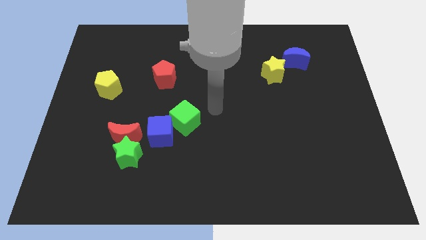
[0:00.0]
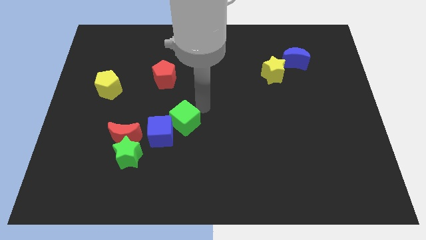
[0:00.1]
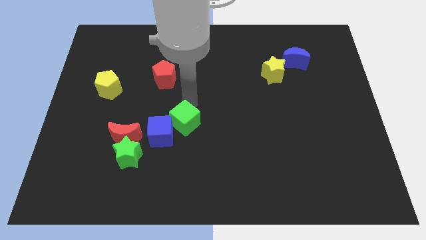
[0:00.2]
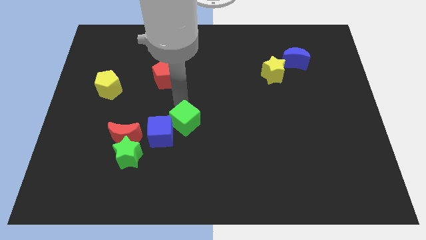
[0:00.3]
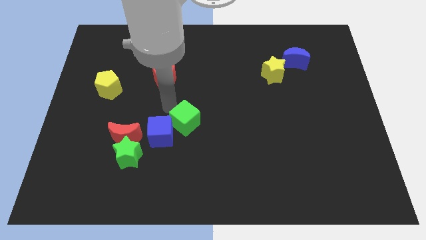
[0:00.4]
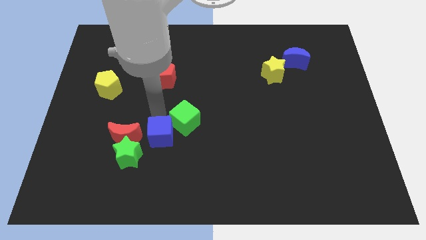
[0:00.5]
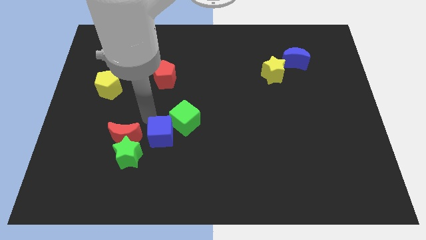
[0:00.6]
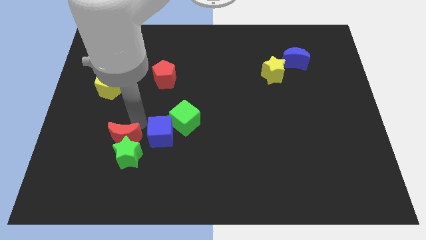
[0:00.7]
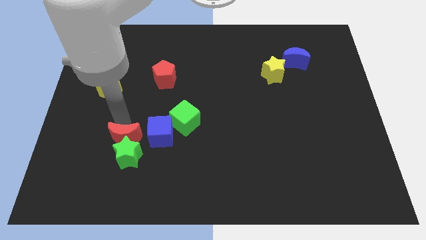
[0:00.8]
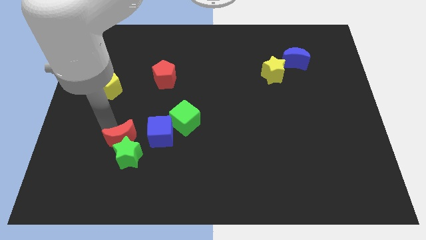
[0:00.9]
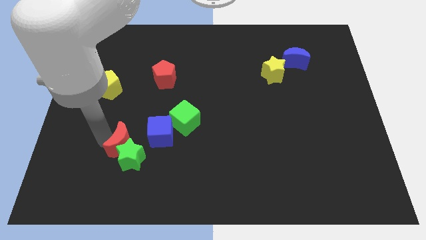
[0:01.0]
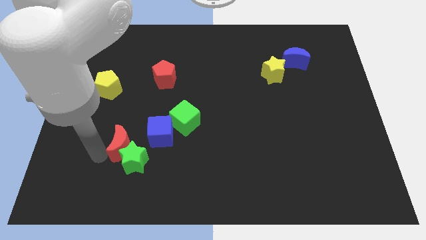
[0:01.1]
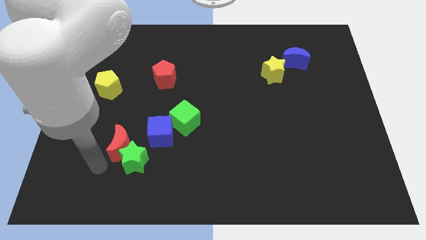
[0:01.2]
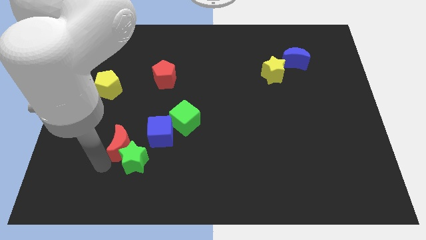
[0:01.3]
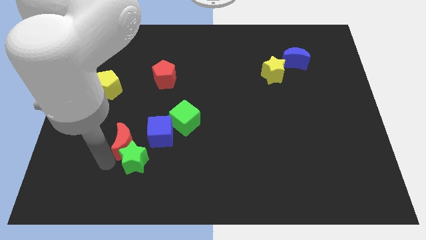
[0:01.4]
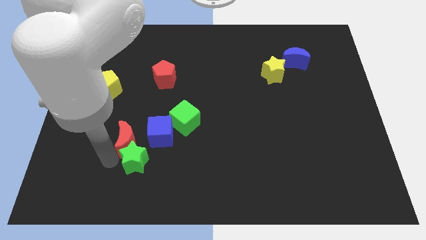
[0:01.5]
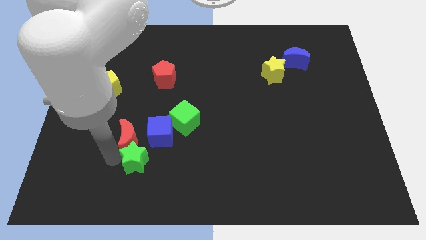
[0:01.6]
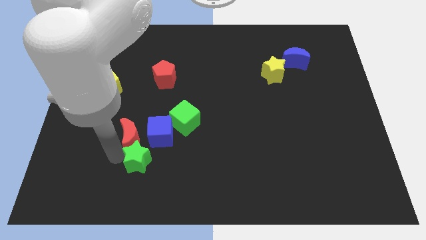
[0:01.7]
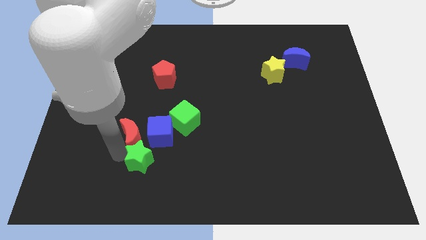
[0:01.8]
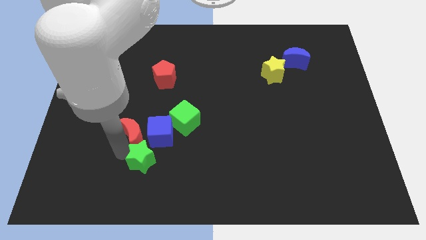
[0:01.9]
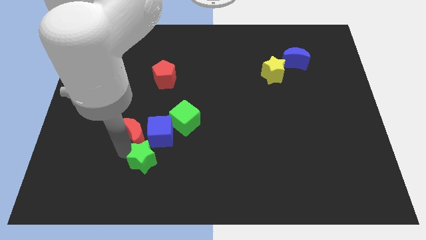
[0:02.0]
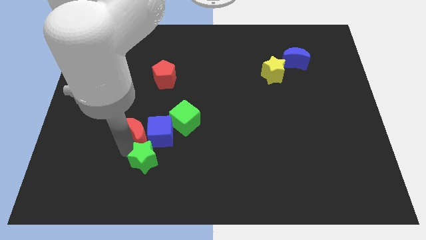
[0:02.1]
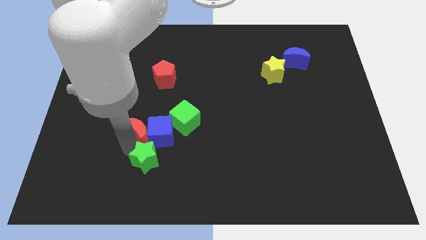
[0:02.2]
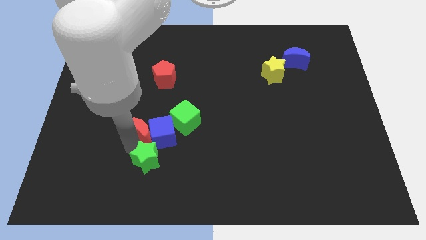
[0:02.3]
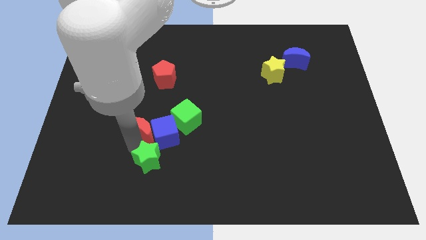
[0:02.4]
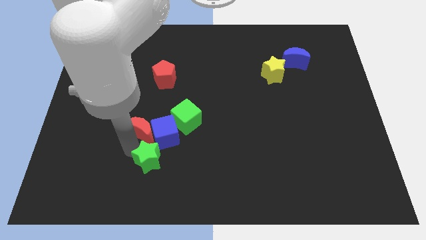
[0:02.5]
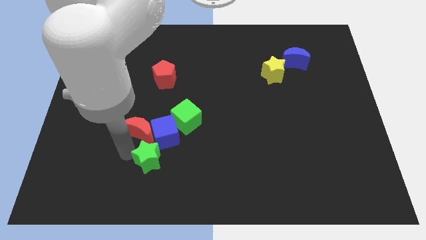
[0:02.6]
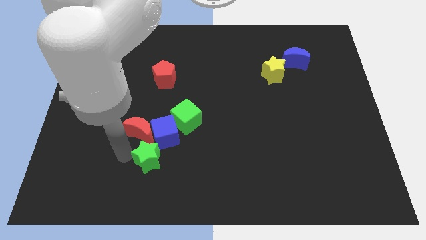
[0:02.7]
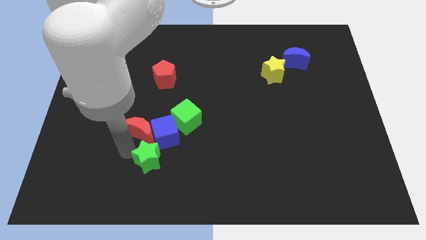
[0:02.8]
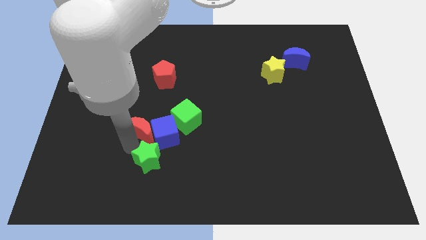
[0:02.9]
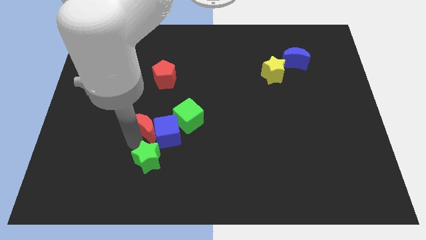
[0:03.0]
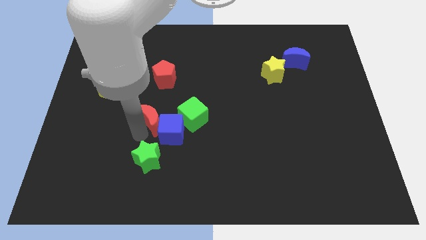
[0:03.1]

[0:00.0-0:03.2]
move the red moon slightly diagonally up and right

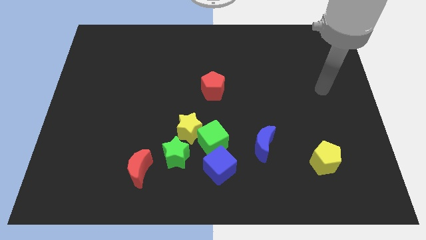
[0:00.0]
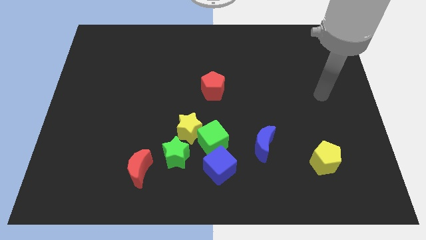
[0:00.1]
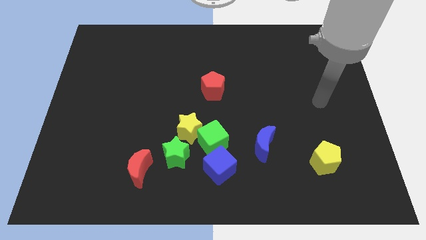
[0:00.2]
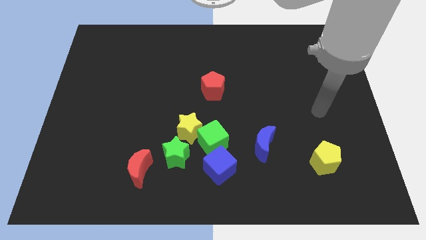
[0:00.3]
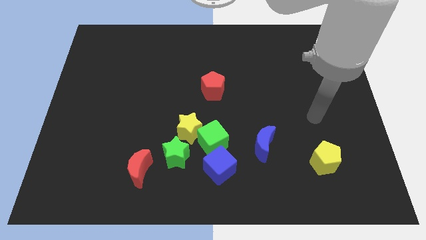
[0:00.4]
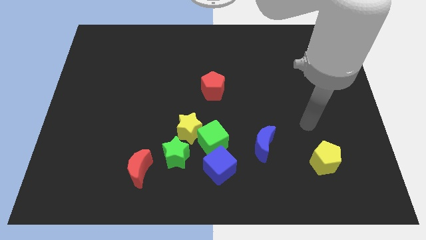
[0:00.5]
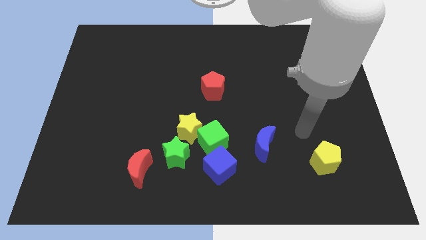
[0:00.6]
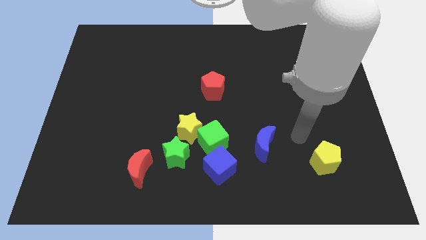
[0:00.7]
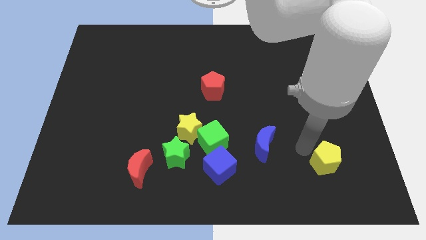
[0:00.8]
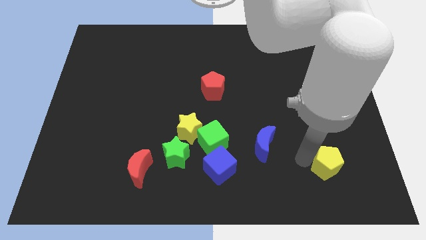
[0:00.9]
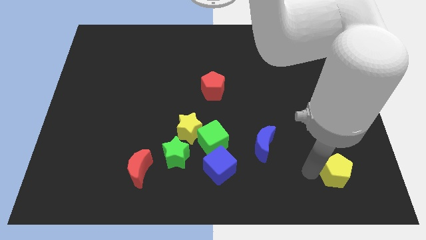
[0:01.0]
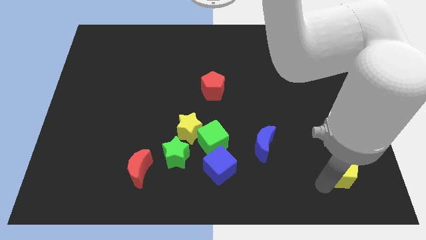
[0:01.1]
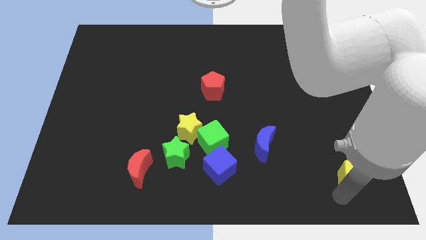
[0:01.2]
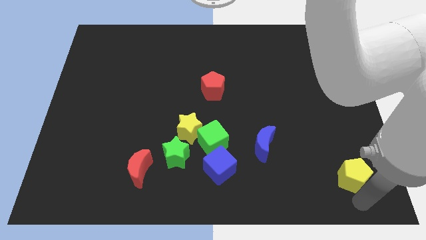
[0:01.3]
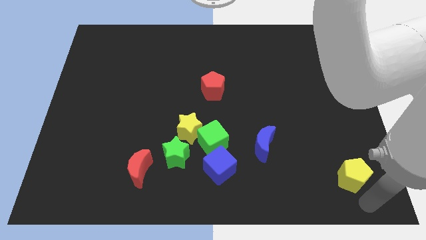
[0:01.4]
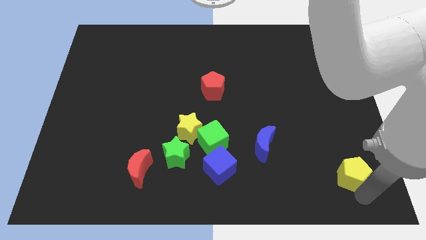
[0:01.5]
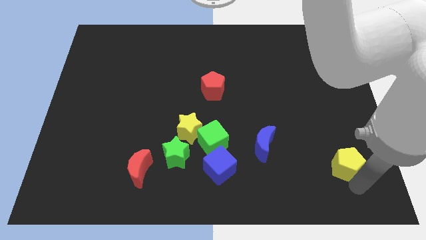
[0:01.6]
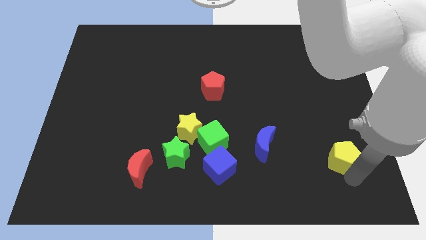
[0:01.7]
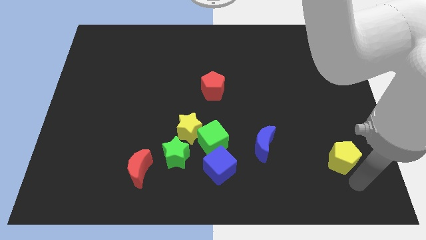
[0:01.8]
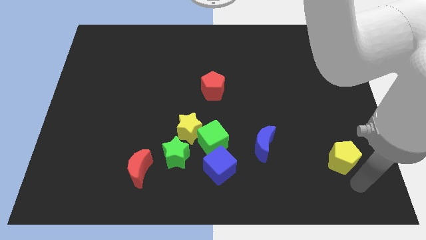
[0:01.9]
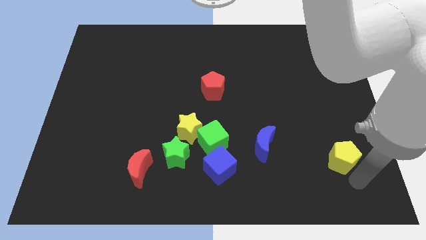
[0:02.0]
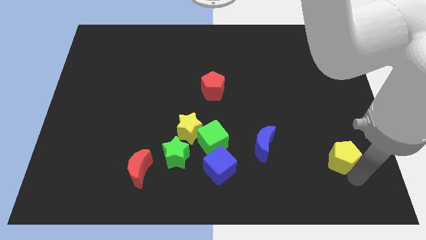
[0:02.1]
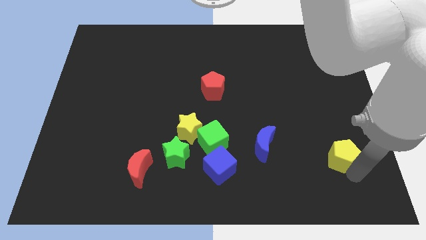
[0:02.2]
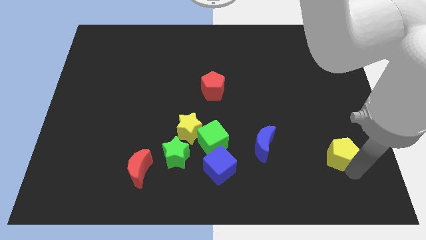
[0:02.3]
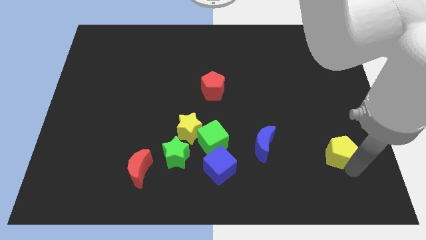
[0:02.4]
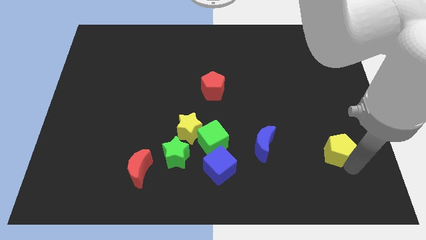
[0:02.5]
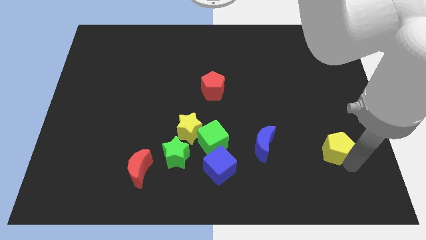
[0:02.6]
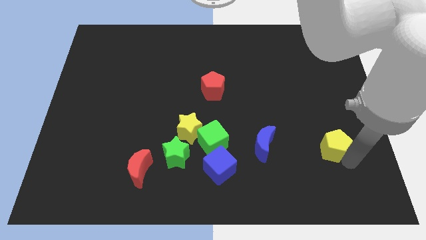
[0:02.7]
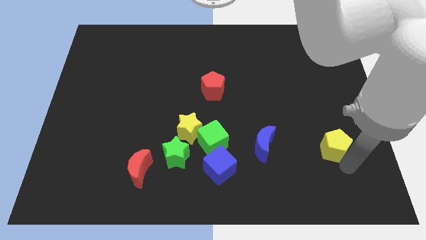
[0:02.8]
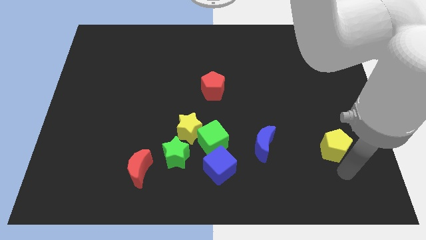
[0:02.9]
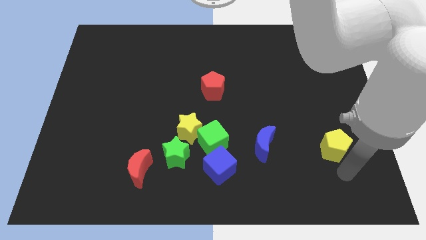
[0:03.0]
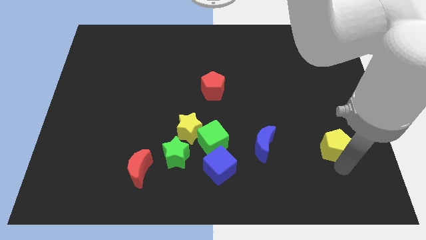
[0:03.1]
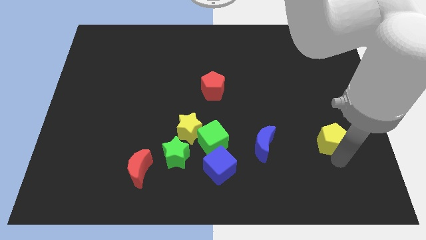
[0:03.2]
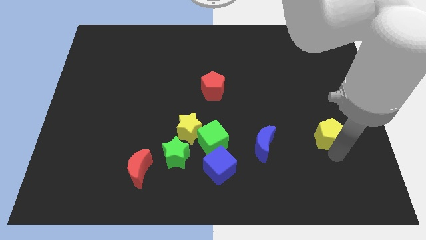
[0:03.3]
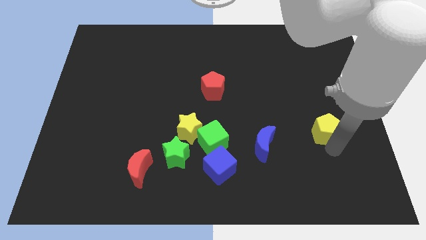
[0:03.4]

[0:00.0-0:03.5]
slide the yellow pentagon somewhat upwards

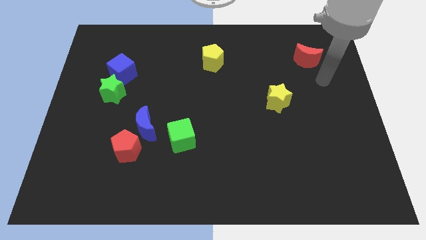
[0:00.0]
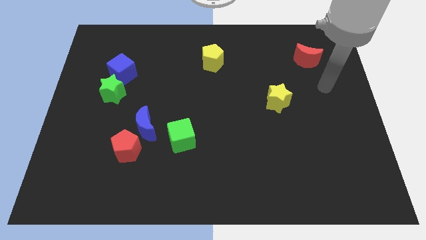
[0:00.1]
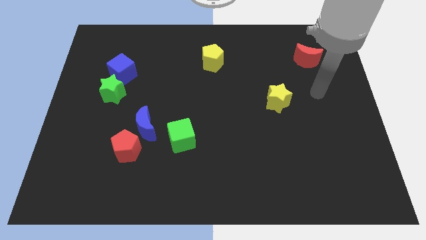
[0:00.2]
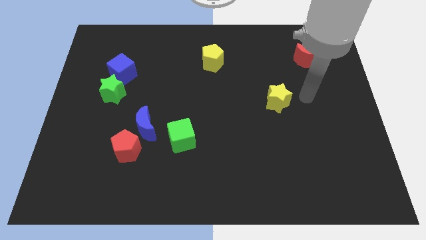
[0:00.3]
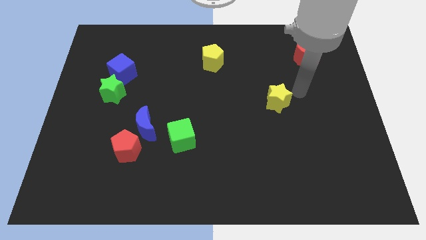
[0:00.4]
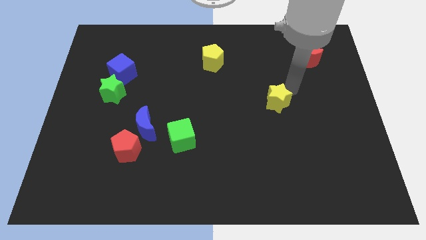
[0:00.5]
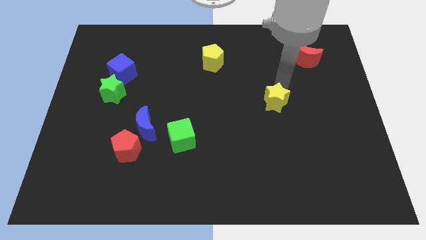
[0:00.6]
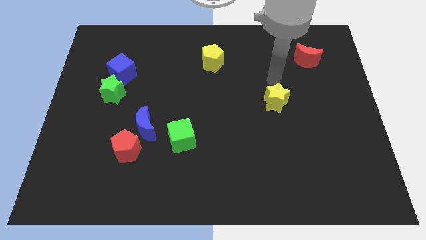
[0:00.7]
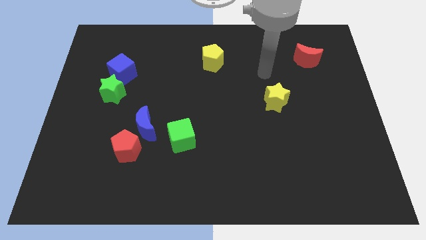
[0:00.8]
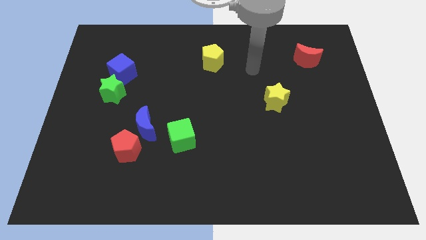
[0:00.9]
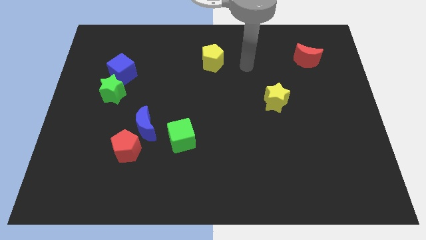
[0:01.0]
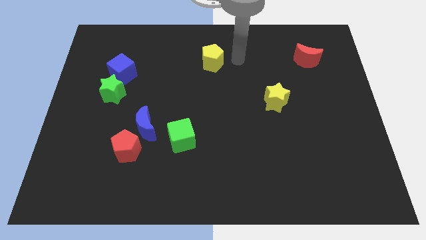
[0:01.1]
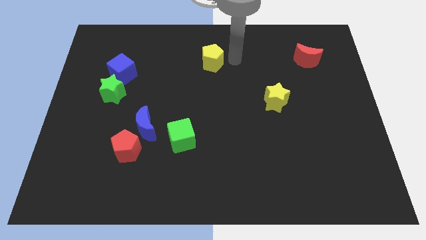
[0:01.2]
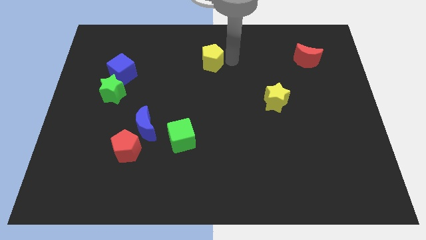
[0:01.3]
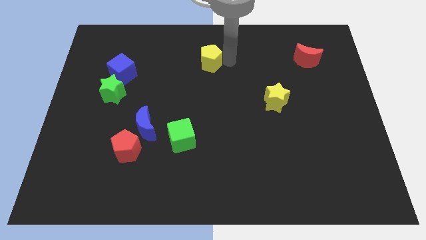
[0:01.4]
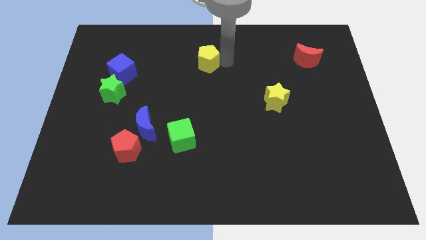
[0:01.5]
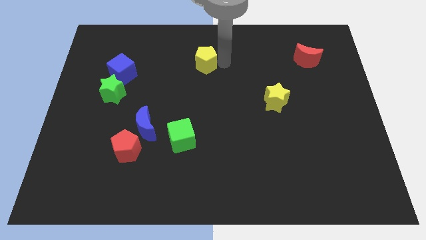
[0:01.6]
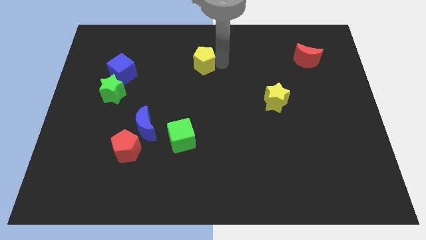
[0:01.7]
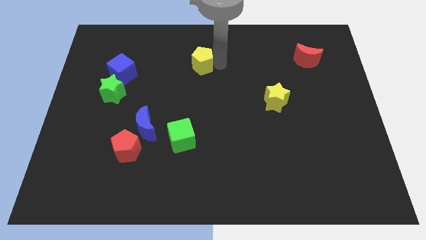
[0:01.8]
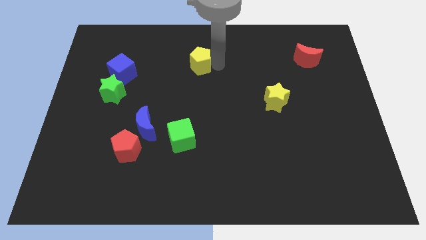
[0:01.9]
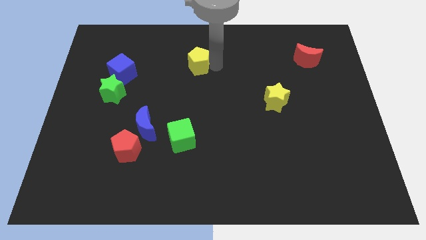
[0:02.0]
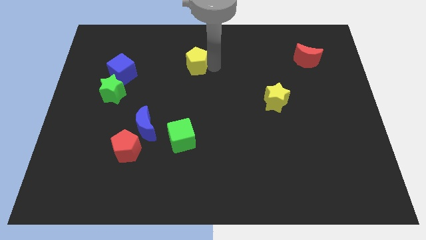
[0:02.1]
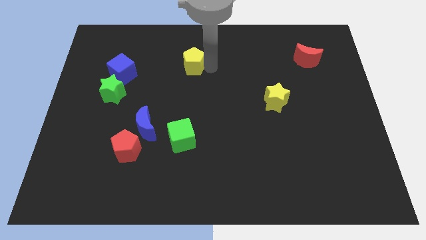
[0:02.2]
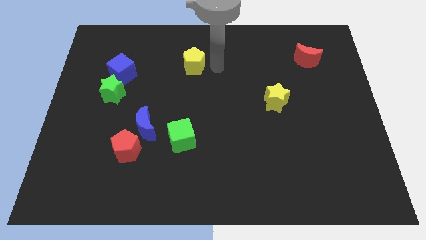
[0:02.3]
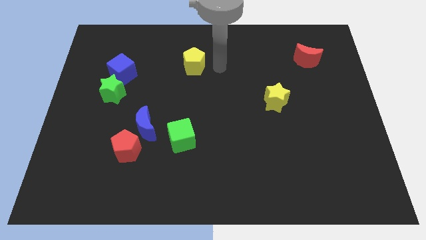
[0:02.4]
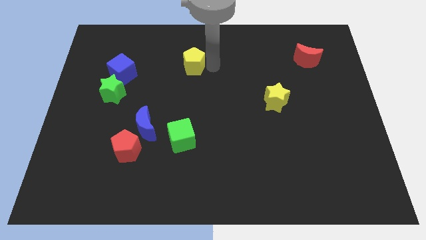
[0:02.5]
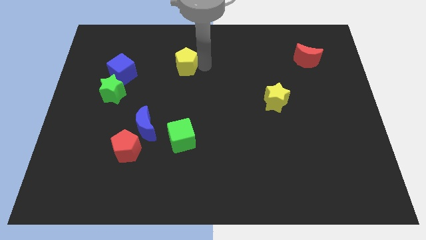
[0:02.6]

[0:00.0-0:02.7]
slightly push the yellow pentagon left
